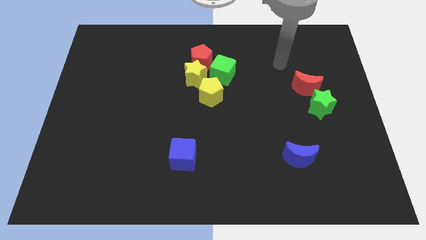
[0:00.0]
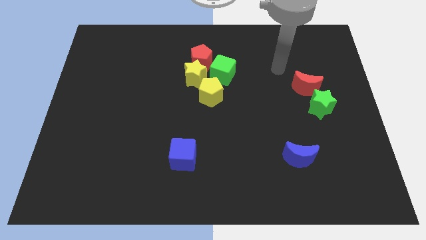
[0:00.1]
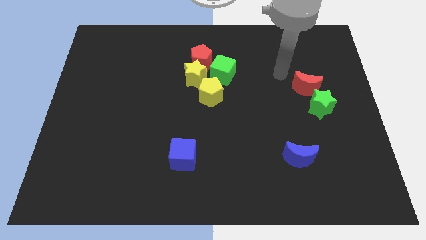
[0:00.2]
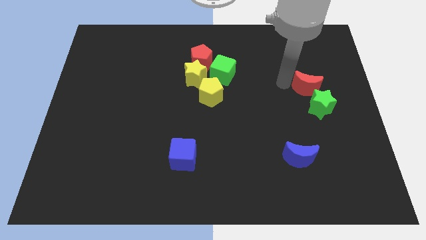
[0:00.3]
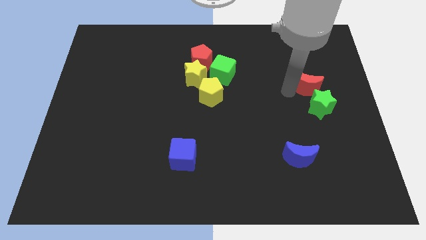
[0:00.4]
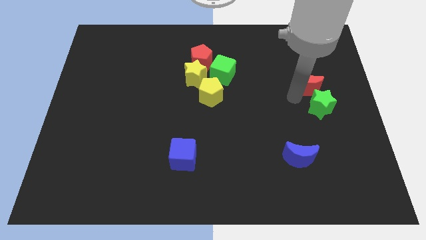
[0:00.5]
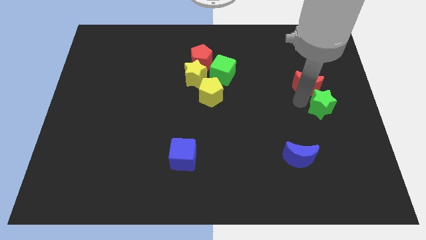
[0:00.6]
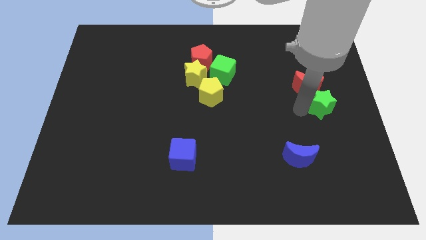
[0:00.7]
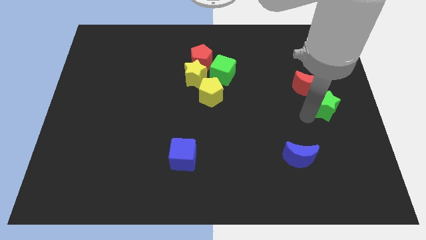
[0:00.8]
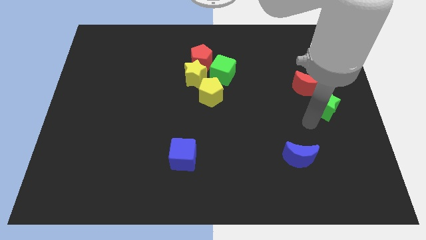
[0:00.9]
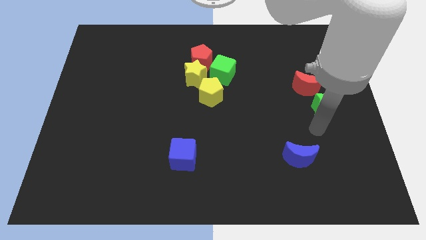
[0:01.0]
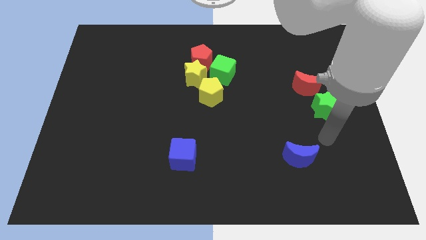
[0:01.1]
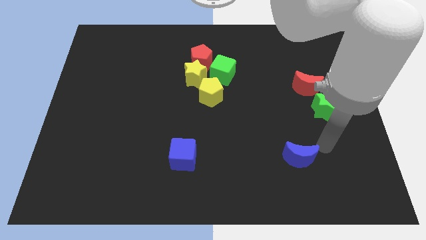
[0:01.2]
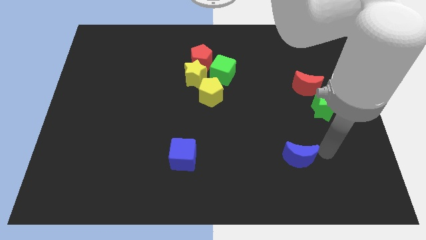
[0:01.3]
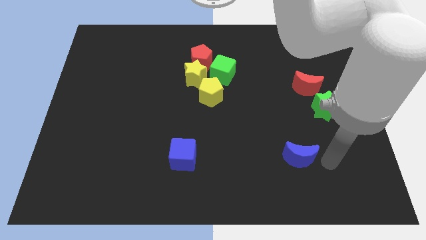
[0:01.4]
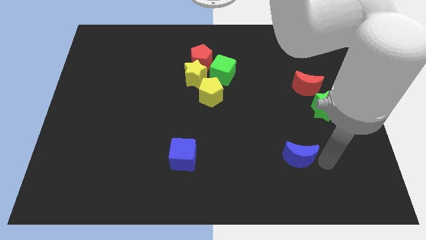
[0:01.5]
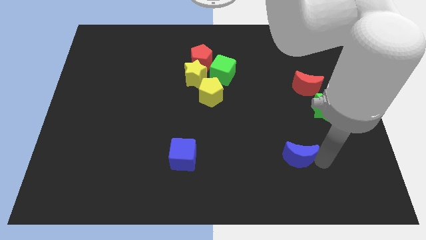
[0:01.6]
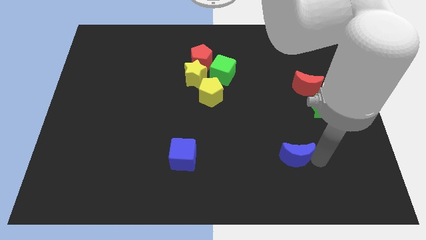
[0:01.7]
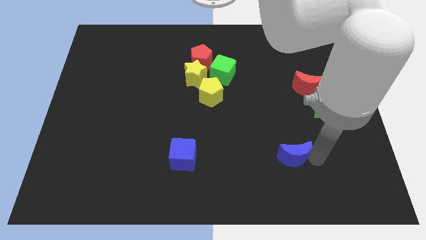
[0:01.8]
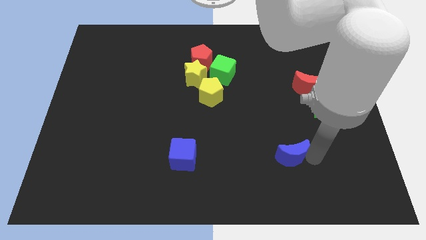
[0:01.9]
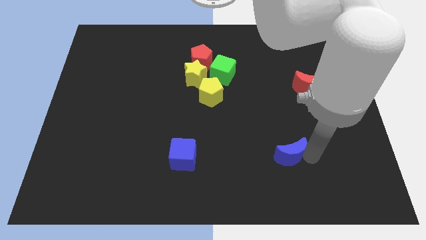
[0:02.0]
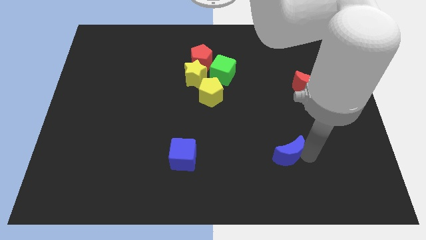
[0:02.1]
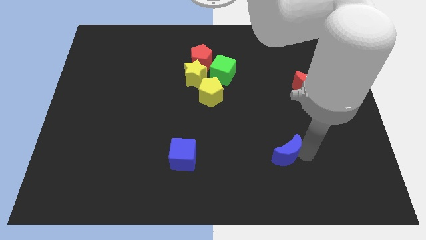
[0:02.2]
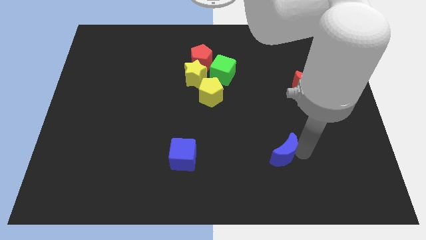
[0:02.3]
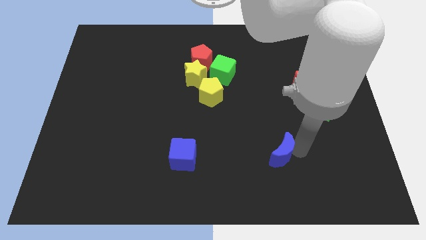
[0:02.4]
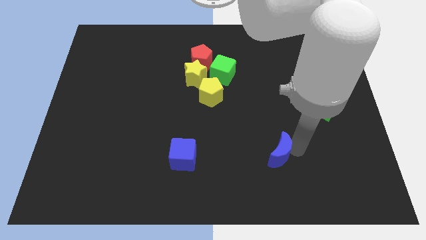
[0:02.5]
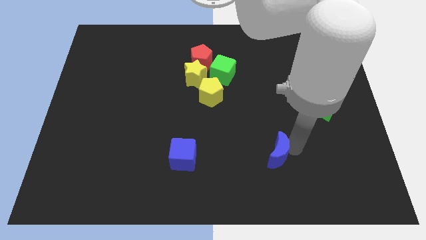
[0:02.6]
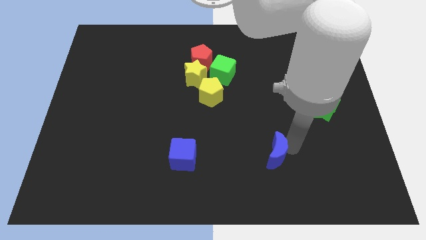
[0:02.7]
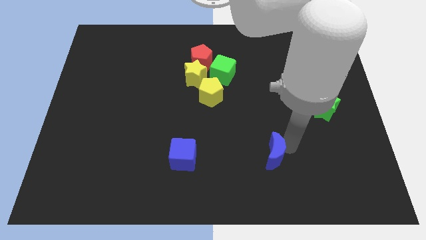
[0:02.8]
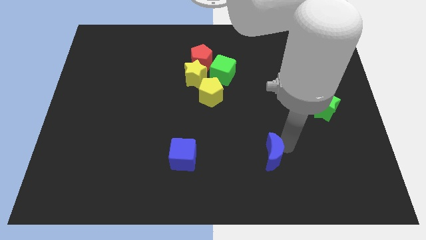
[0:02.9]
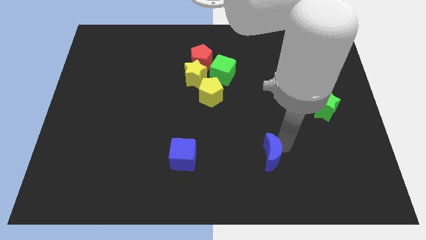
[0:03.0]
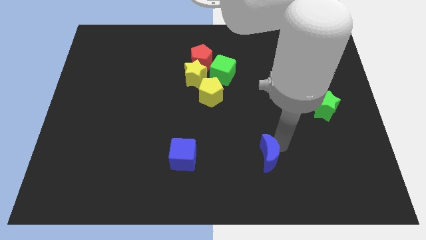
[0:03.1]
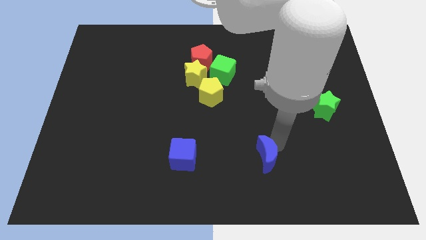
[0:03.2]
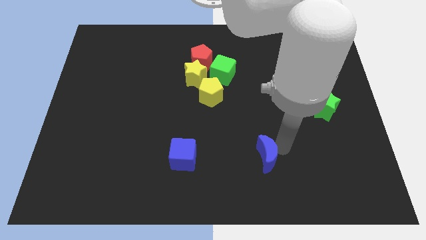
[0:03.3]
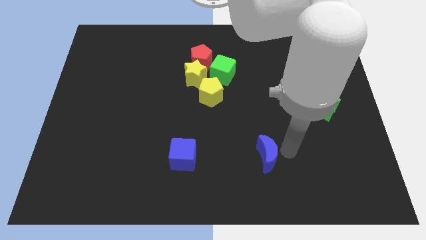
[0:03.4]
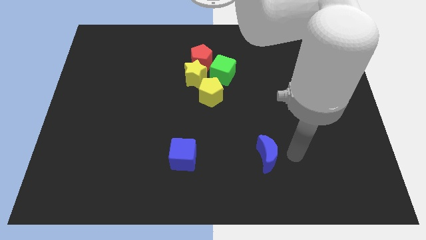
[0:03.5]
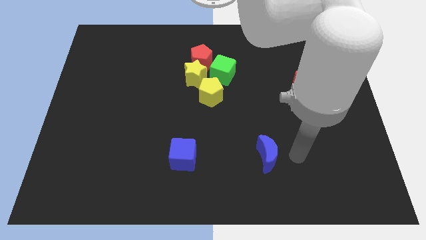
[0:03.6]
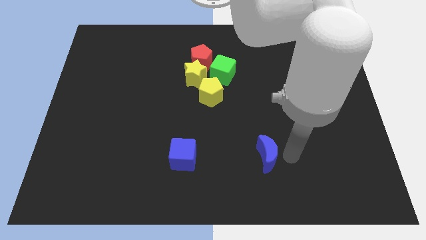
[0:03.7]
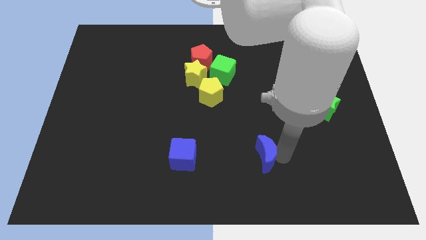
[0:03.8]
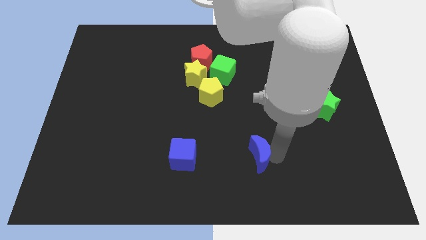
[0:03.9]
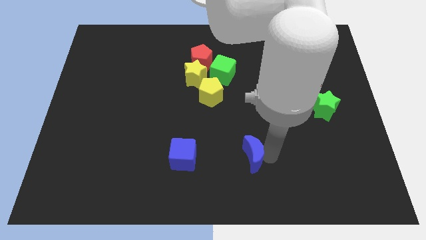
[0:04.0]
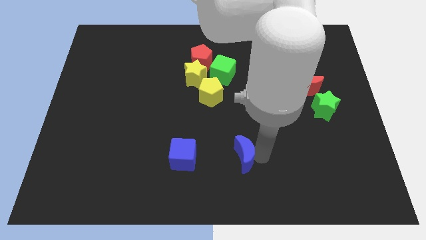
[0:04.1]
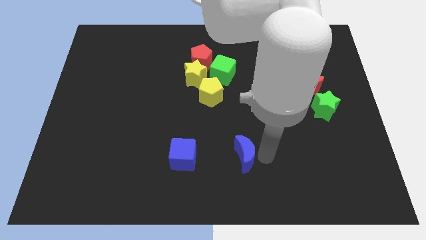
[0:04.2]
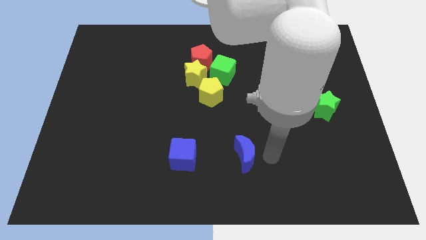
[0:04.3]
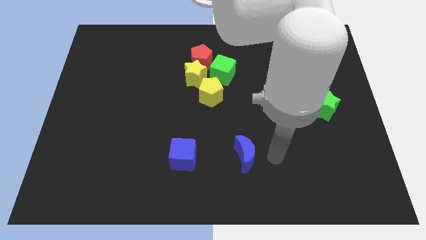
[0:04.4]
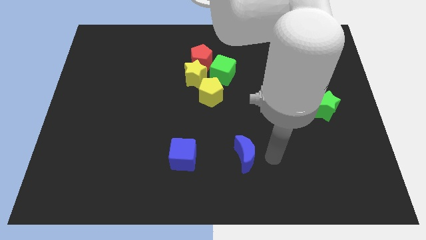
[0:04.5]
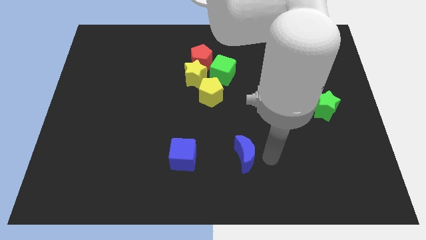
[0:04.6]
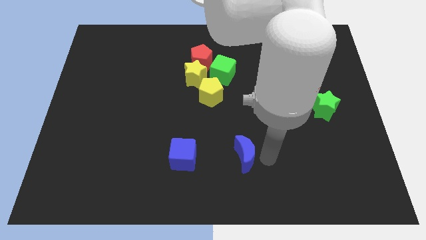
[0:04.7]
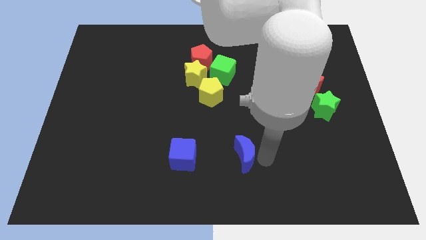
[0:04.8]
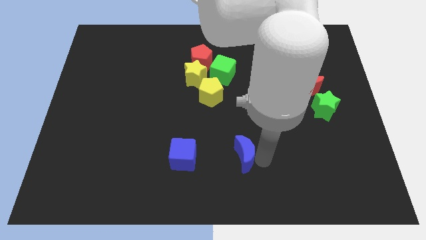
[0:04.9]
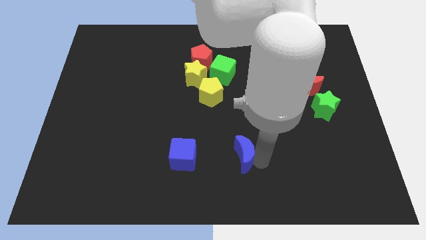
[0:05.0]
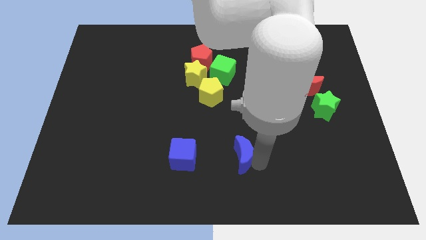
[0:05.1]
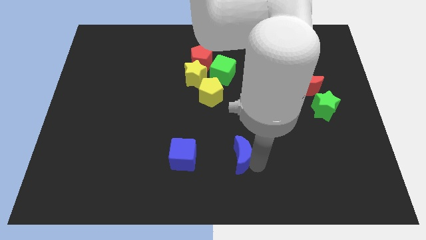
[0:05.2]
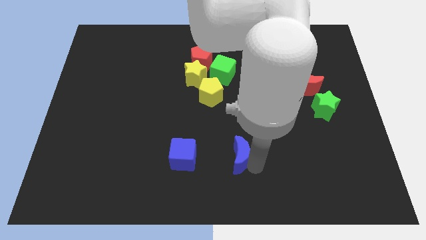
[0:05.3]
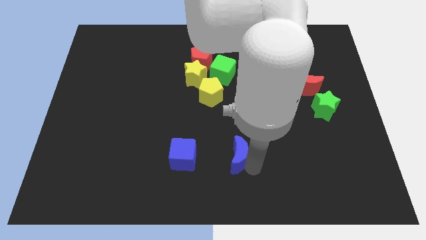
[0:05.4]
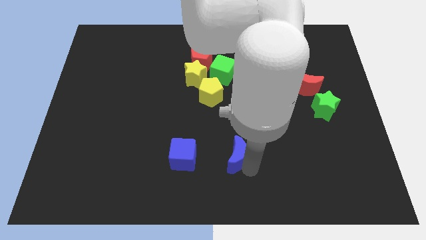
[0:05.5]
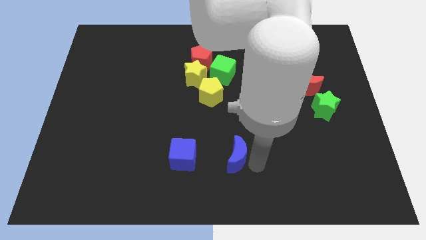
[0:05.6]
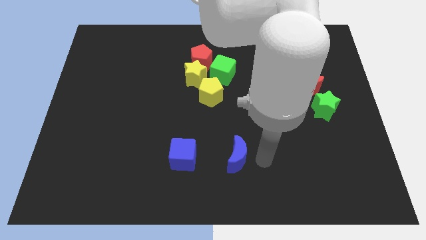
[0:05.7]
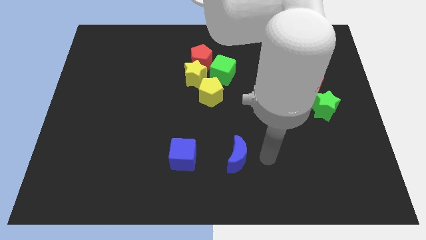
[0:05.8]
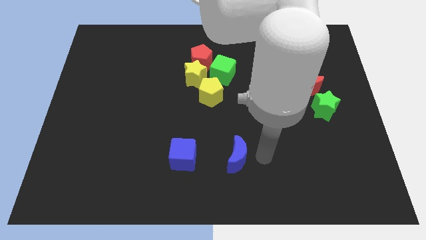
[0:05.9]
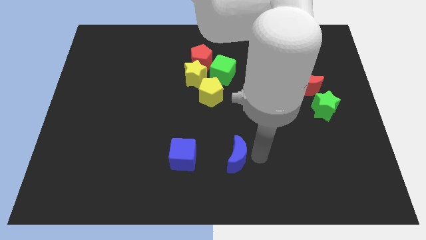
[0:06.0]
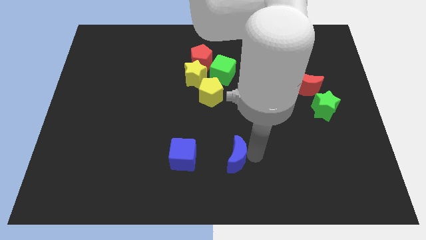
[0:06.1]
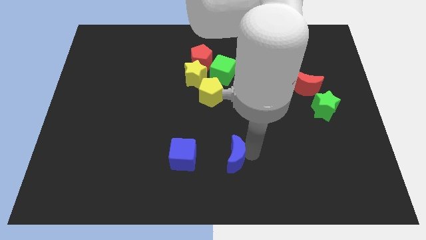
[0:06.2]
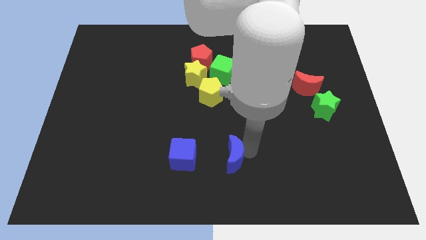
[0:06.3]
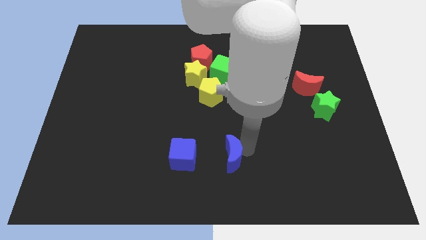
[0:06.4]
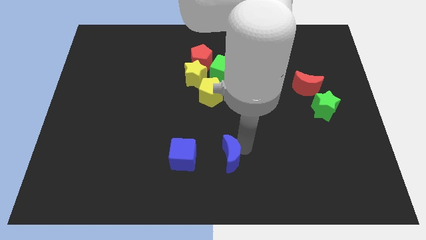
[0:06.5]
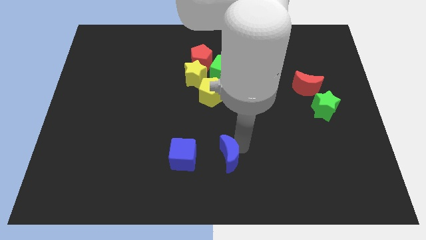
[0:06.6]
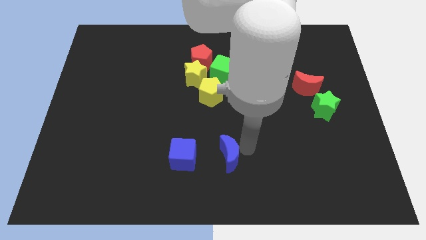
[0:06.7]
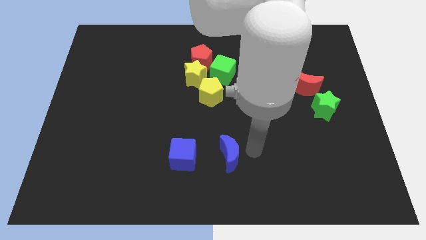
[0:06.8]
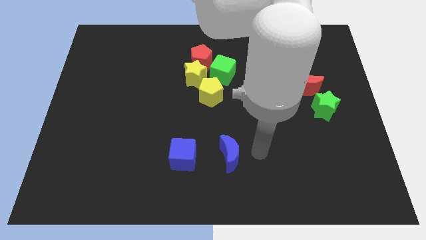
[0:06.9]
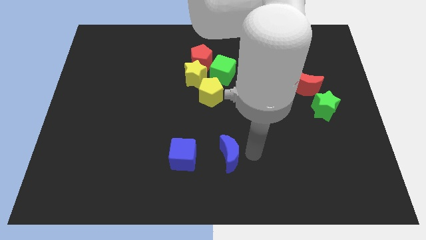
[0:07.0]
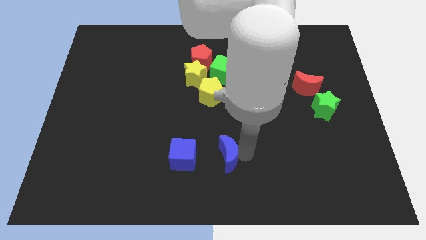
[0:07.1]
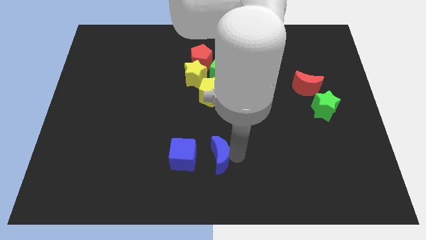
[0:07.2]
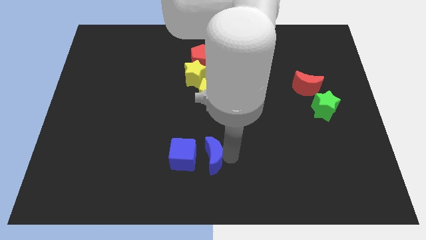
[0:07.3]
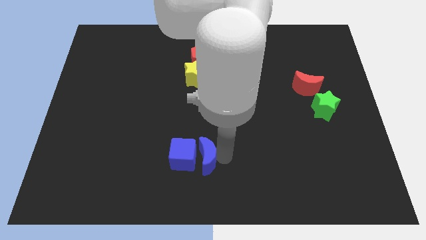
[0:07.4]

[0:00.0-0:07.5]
put the blue moon towards the blue cube

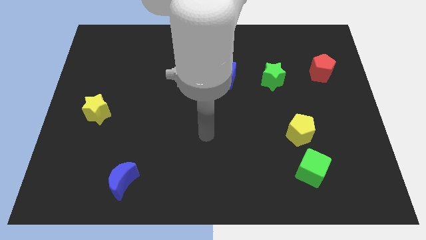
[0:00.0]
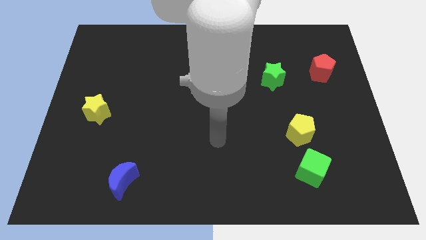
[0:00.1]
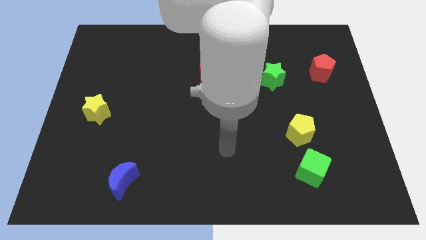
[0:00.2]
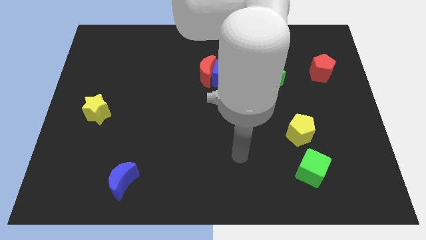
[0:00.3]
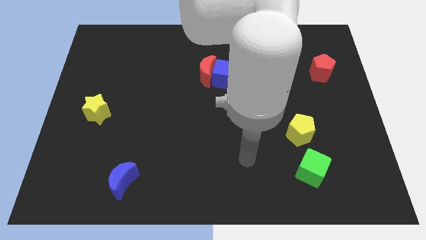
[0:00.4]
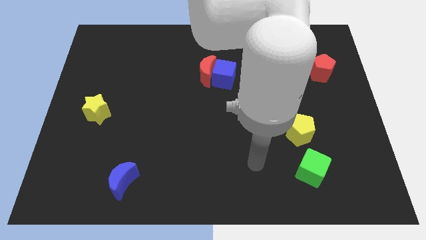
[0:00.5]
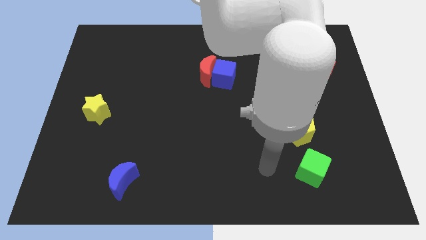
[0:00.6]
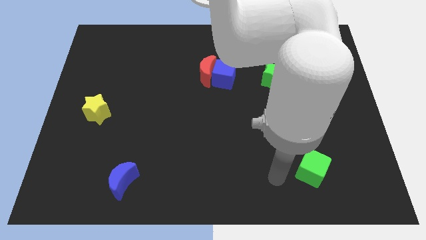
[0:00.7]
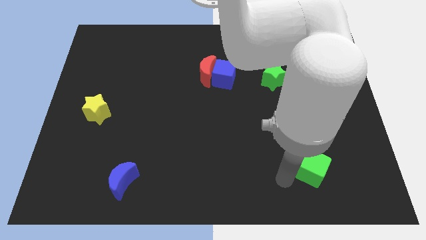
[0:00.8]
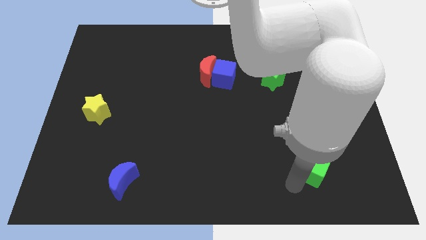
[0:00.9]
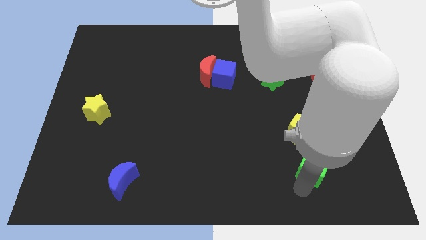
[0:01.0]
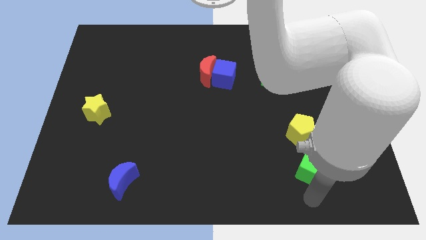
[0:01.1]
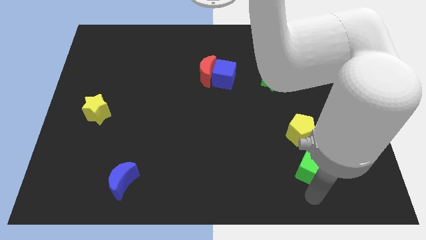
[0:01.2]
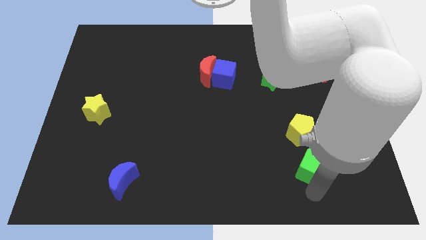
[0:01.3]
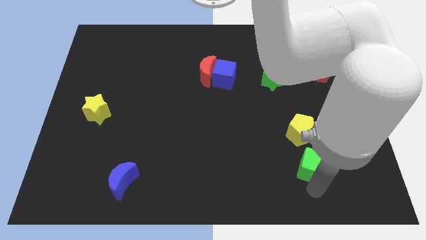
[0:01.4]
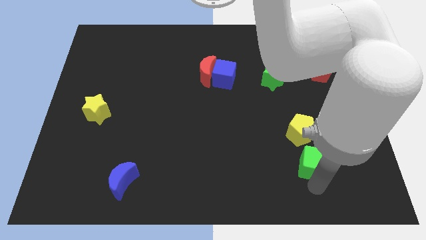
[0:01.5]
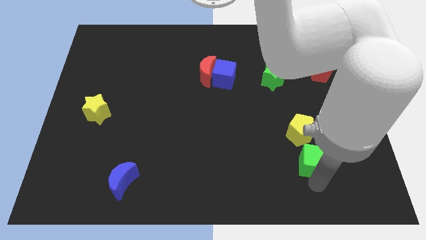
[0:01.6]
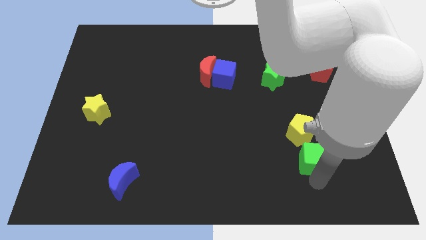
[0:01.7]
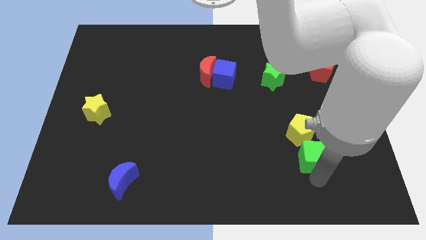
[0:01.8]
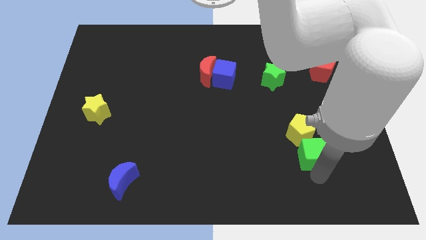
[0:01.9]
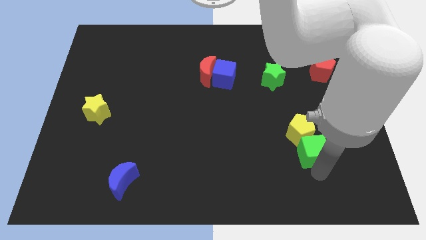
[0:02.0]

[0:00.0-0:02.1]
slide the green cube close to the yellow pentagon
